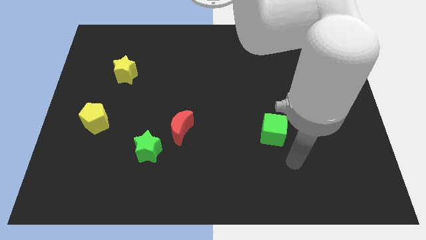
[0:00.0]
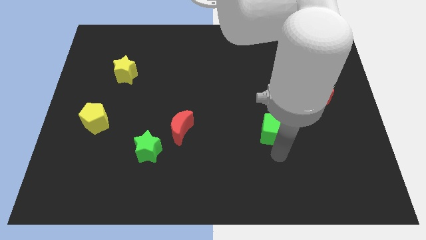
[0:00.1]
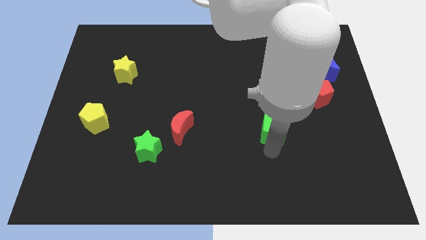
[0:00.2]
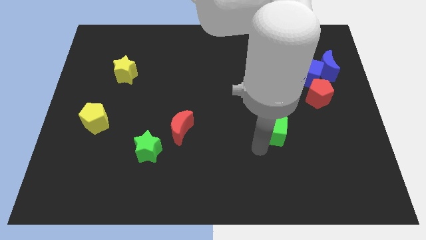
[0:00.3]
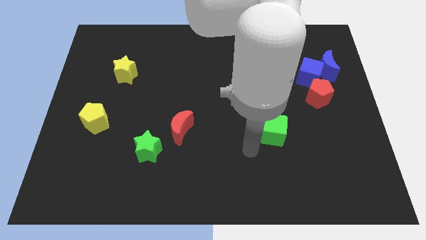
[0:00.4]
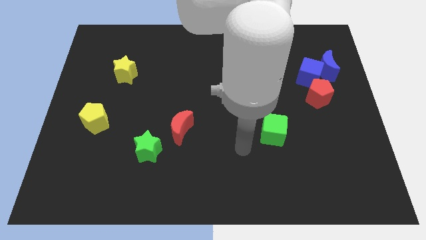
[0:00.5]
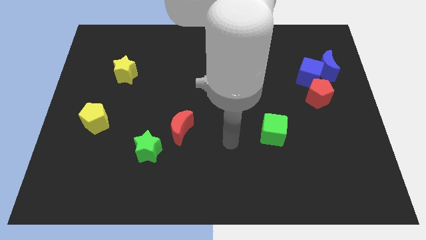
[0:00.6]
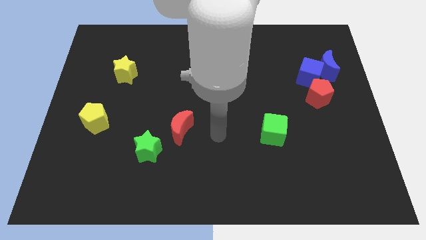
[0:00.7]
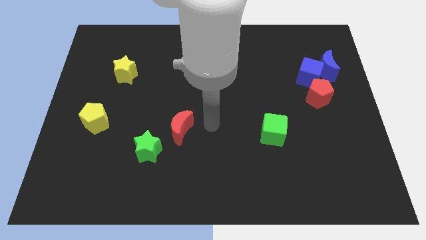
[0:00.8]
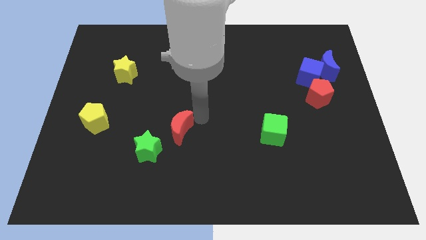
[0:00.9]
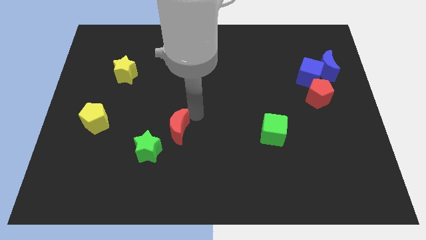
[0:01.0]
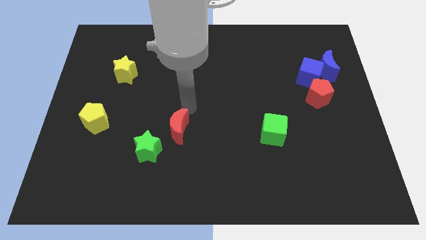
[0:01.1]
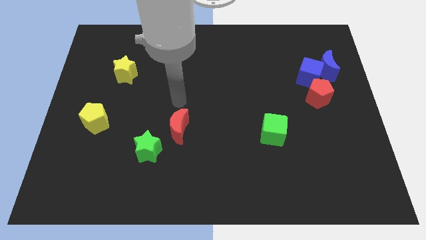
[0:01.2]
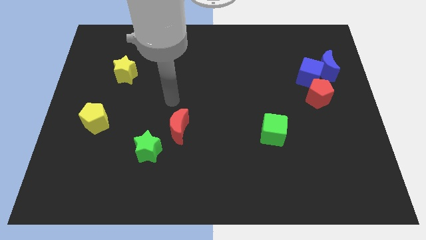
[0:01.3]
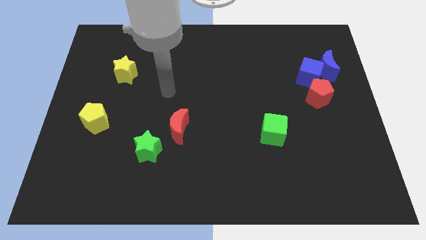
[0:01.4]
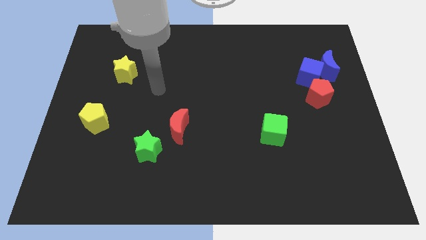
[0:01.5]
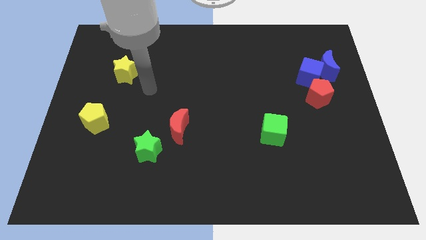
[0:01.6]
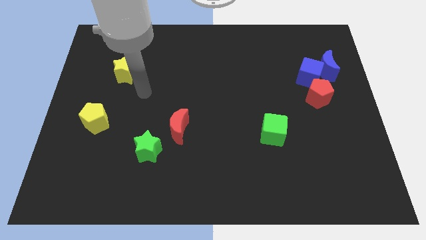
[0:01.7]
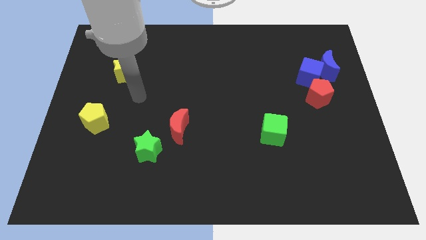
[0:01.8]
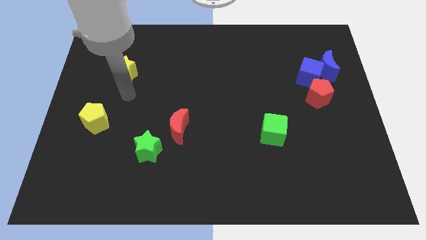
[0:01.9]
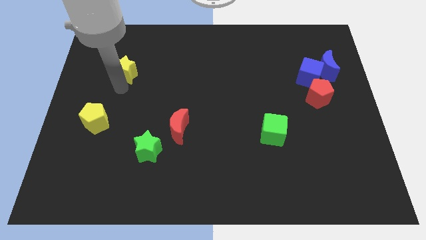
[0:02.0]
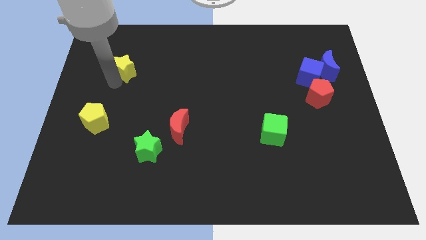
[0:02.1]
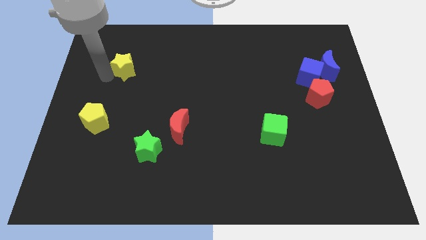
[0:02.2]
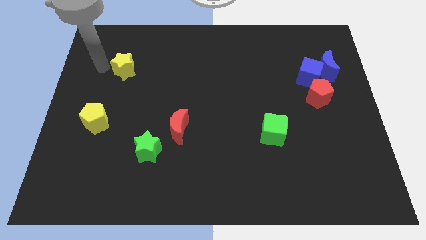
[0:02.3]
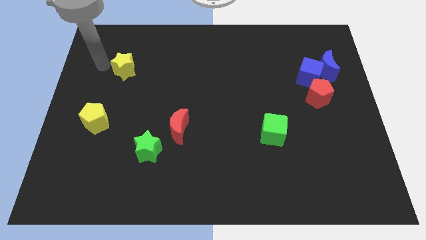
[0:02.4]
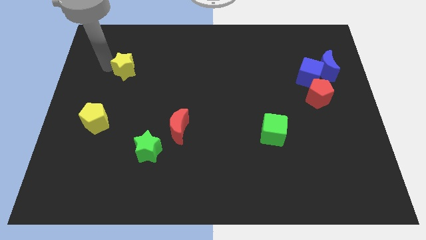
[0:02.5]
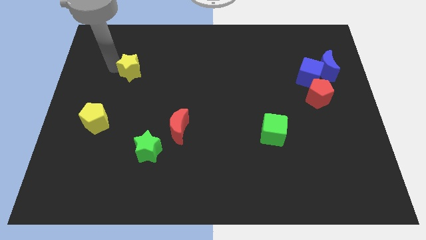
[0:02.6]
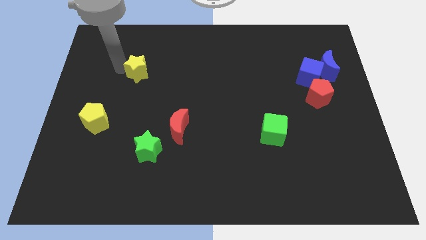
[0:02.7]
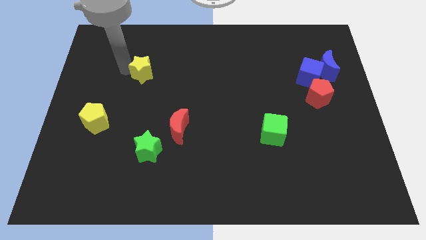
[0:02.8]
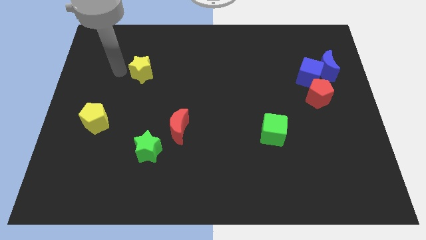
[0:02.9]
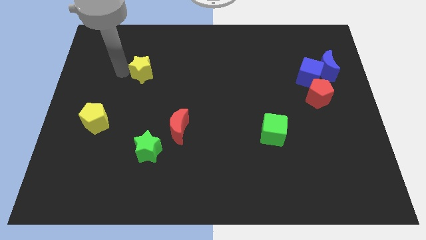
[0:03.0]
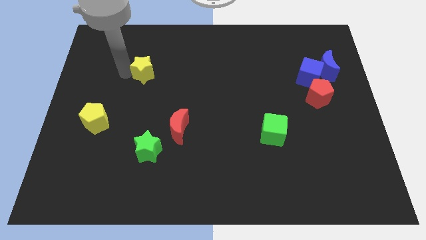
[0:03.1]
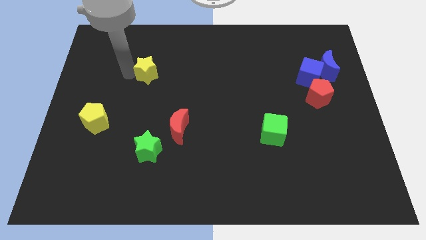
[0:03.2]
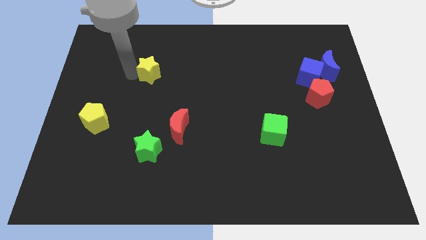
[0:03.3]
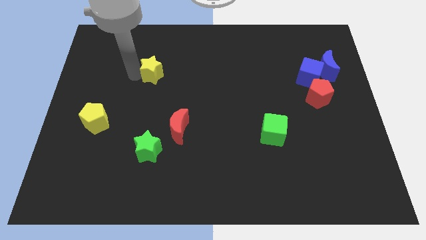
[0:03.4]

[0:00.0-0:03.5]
slide the yellow star a bit to the right

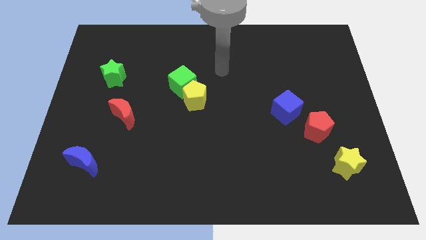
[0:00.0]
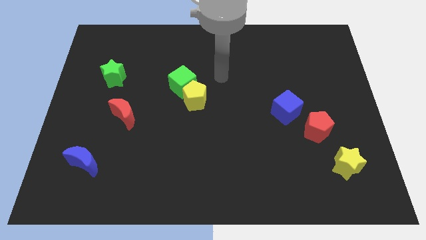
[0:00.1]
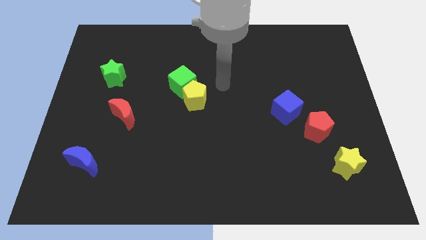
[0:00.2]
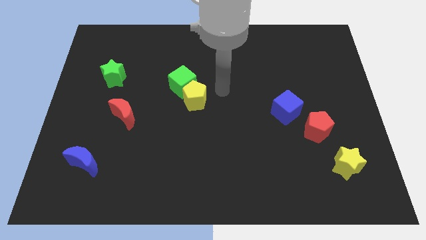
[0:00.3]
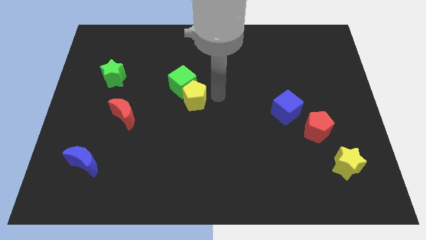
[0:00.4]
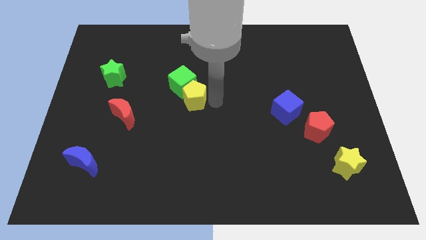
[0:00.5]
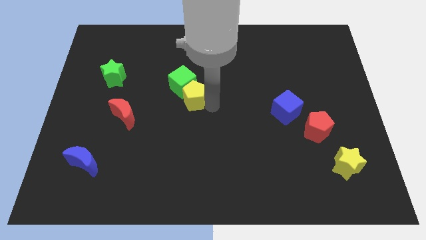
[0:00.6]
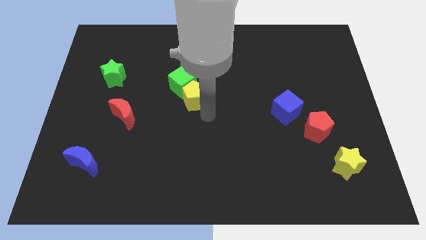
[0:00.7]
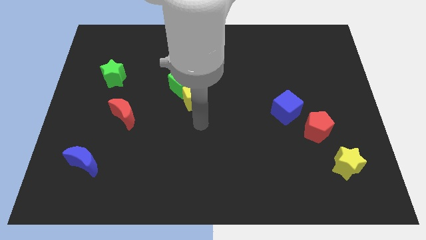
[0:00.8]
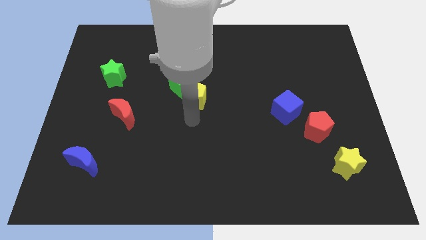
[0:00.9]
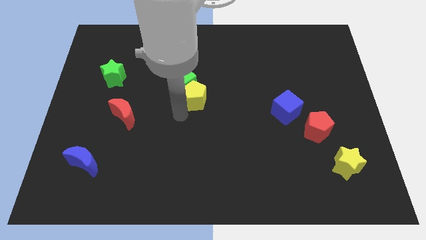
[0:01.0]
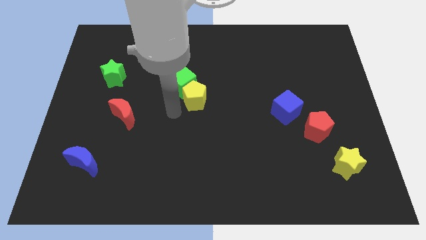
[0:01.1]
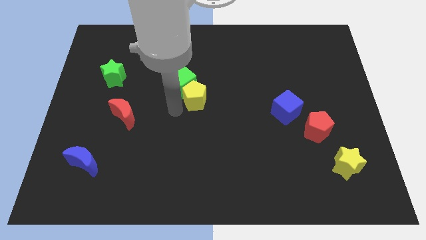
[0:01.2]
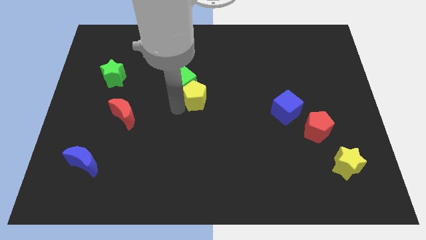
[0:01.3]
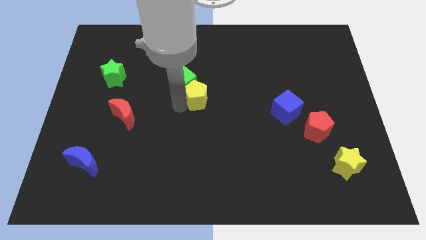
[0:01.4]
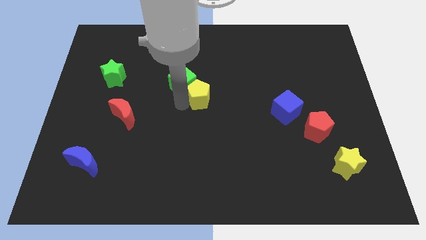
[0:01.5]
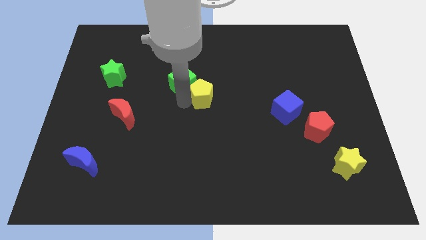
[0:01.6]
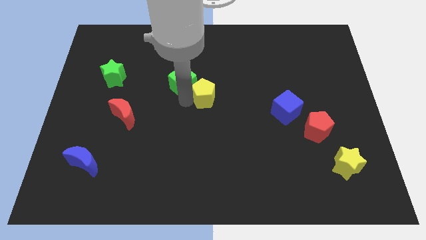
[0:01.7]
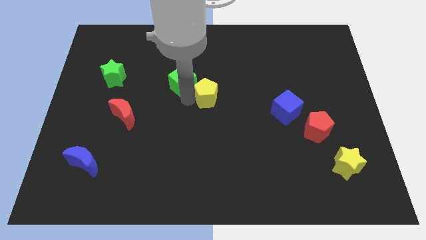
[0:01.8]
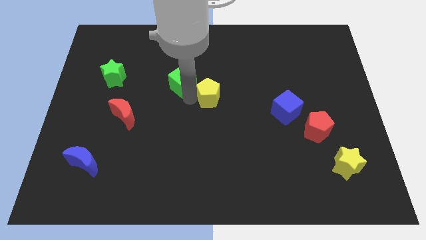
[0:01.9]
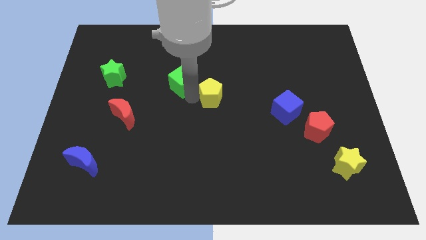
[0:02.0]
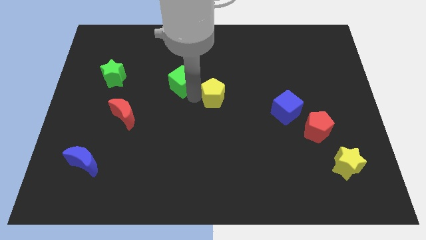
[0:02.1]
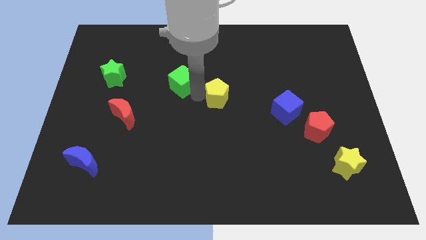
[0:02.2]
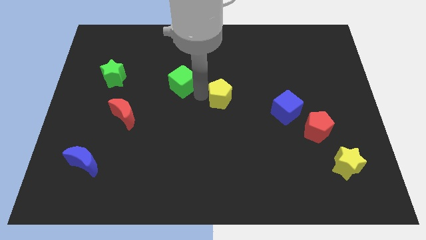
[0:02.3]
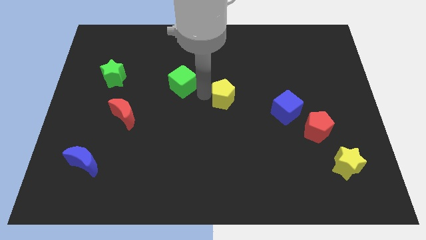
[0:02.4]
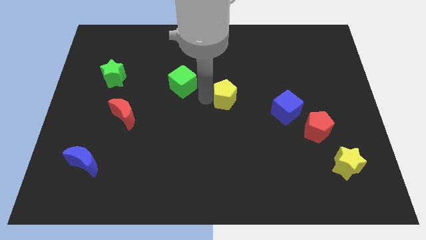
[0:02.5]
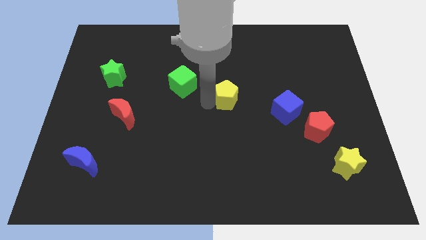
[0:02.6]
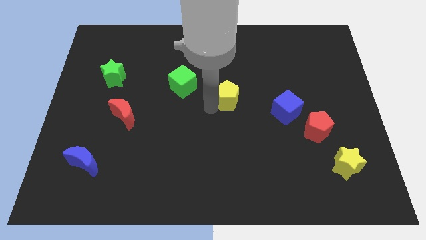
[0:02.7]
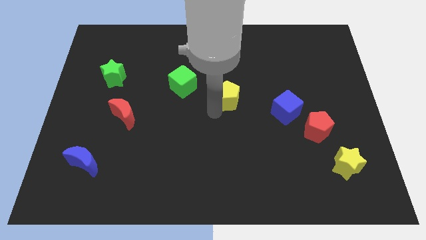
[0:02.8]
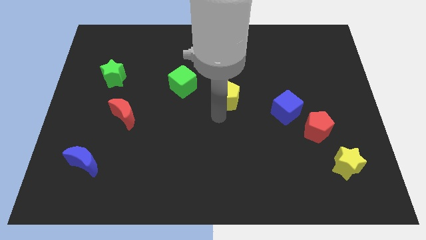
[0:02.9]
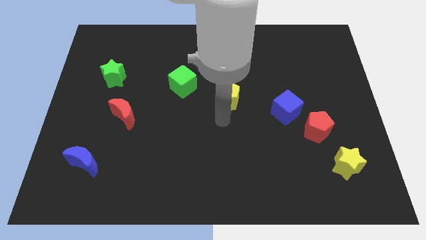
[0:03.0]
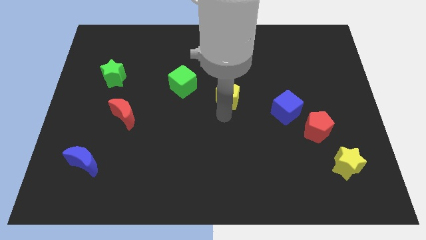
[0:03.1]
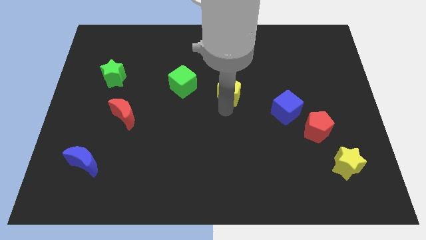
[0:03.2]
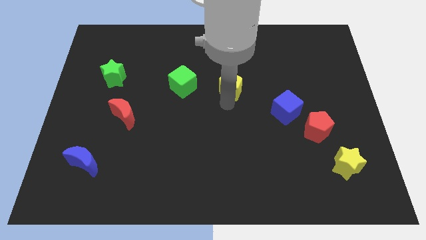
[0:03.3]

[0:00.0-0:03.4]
move the yellow pentagon upwards and right diagonally somewhat

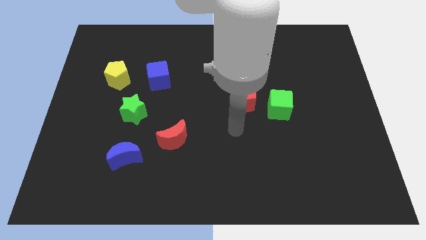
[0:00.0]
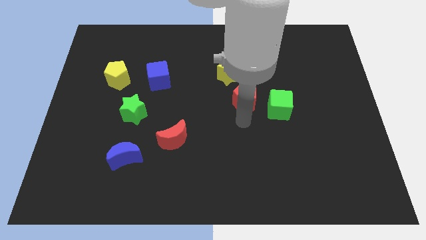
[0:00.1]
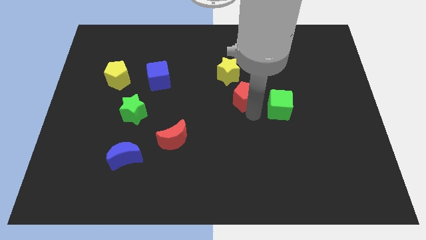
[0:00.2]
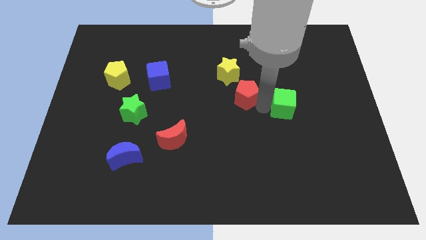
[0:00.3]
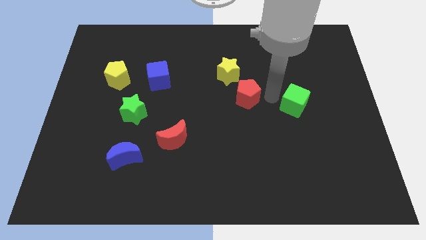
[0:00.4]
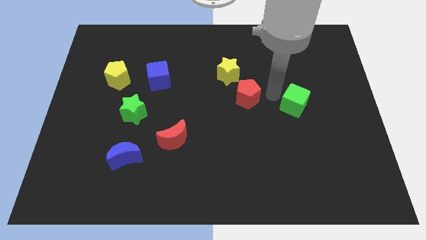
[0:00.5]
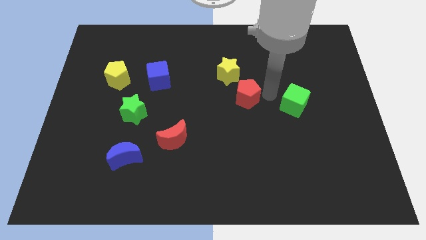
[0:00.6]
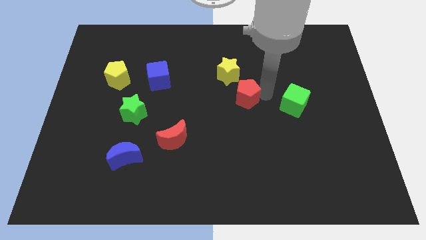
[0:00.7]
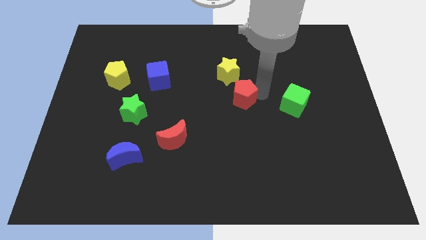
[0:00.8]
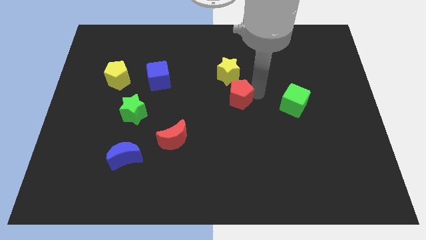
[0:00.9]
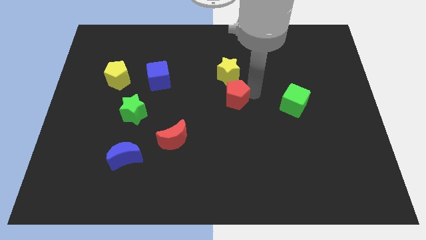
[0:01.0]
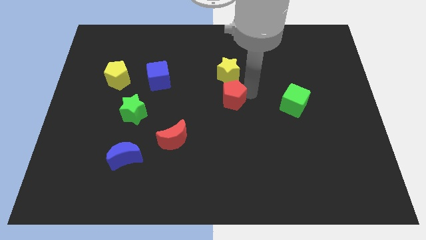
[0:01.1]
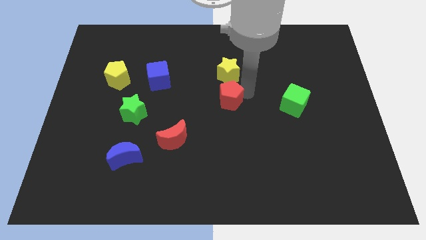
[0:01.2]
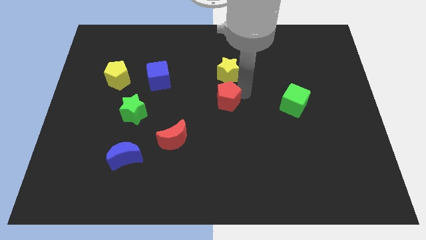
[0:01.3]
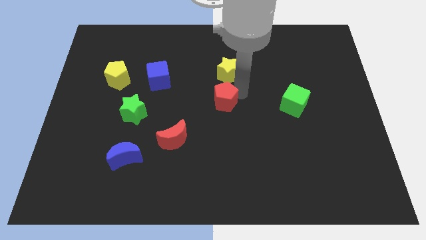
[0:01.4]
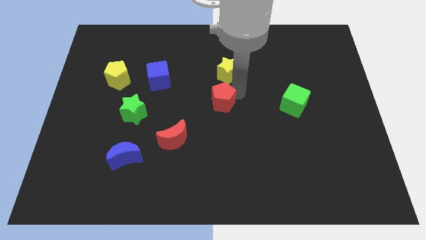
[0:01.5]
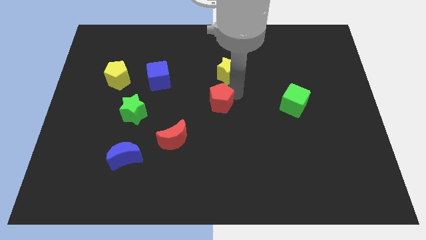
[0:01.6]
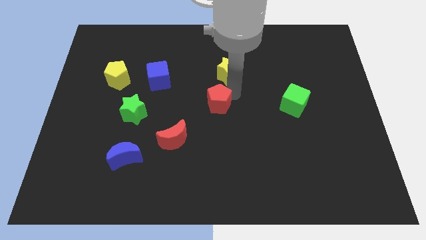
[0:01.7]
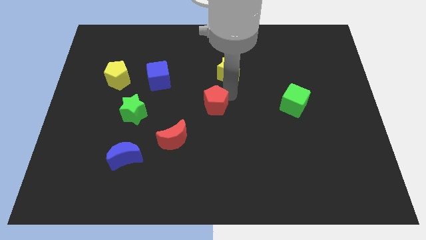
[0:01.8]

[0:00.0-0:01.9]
push the red pentagon to the left a bit
